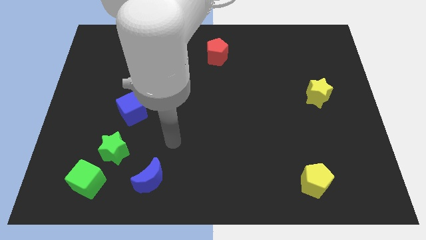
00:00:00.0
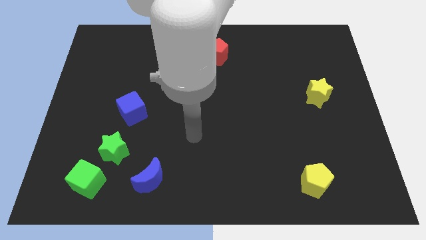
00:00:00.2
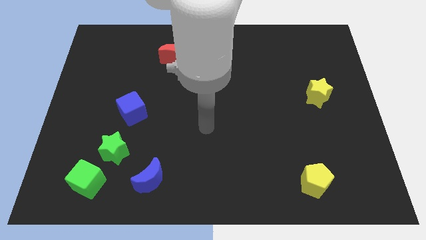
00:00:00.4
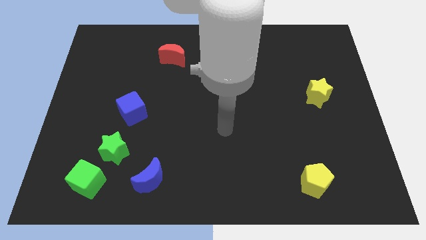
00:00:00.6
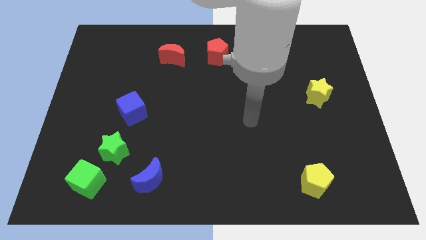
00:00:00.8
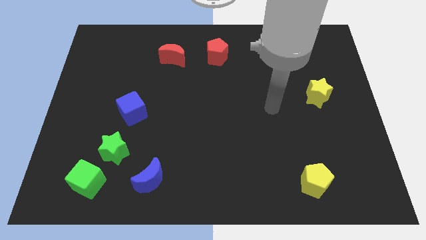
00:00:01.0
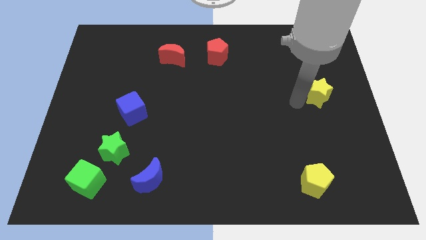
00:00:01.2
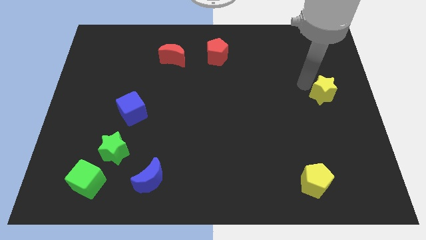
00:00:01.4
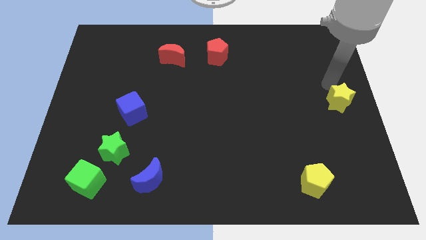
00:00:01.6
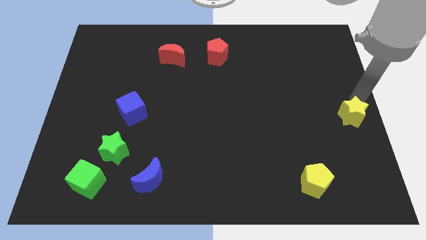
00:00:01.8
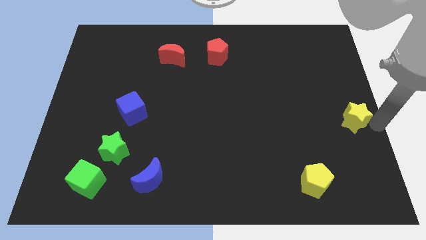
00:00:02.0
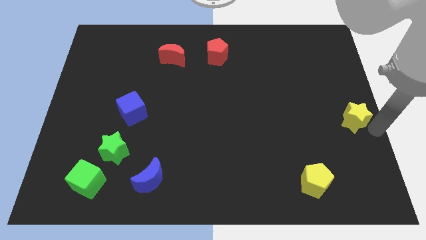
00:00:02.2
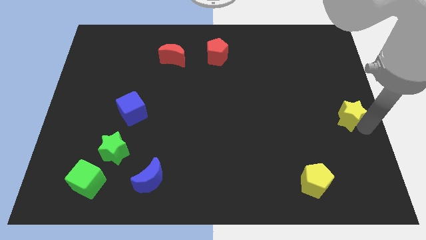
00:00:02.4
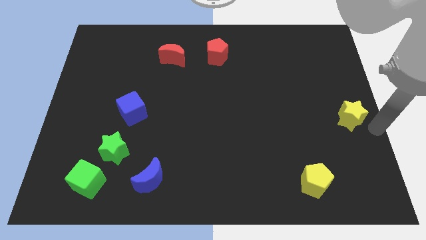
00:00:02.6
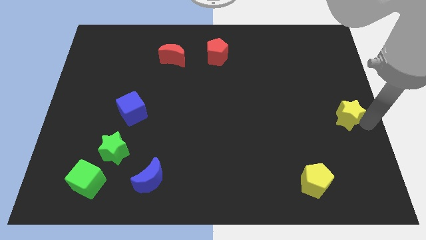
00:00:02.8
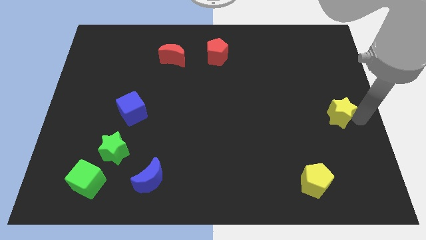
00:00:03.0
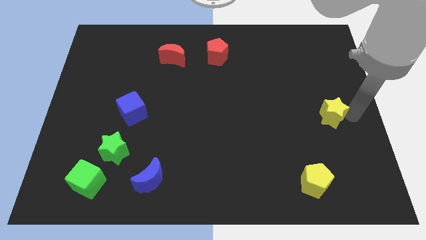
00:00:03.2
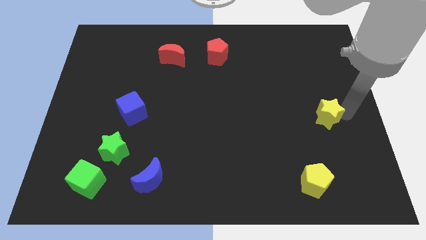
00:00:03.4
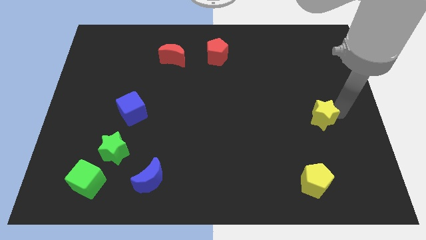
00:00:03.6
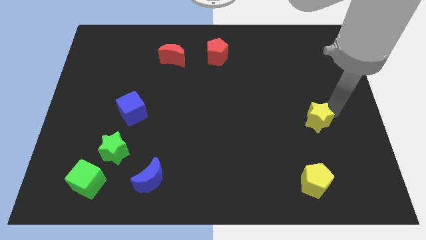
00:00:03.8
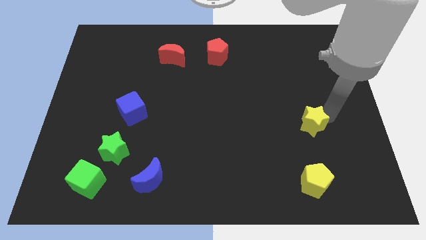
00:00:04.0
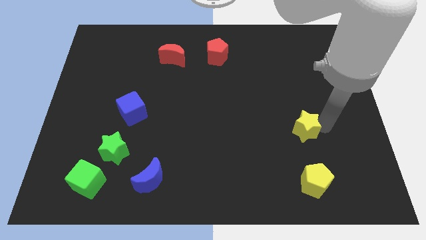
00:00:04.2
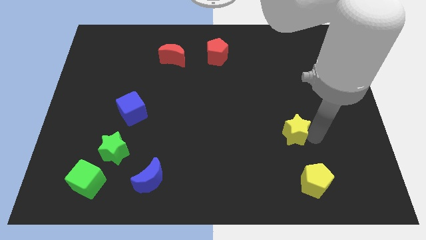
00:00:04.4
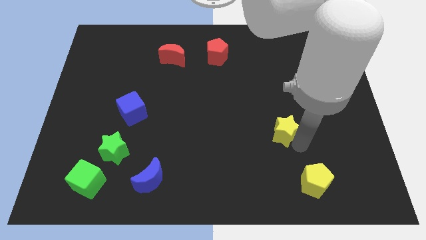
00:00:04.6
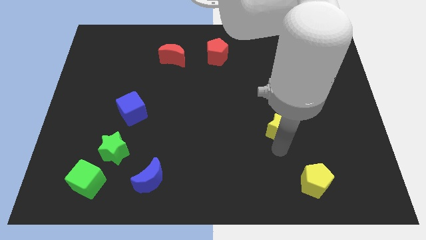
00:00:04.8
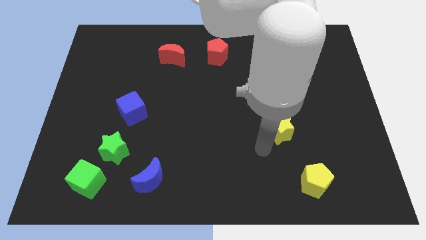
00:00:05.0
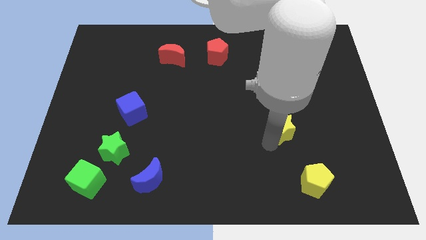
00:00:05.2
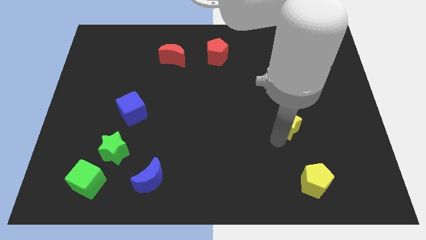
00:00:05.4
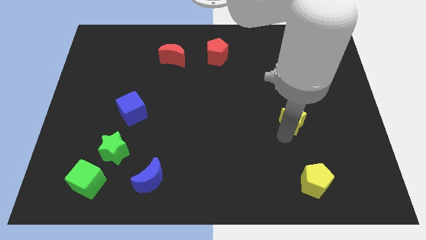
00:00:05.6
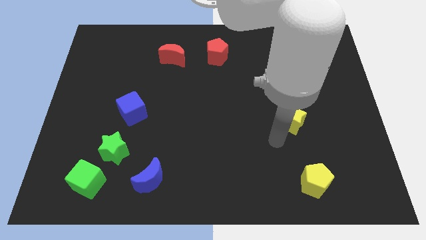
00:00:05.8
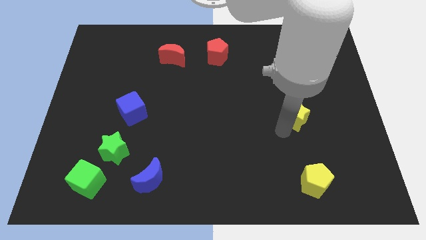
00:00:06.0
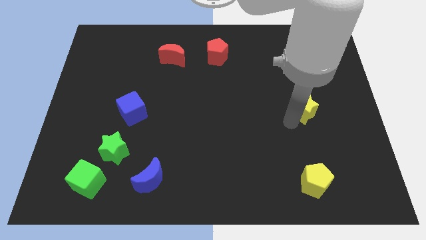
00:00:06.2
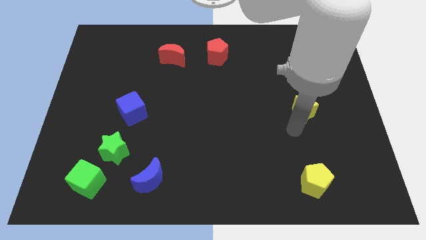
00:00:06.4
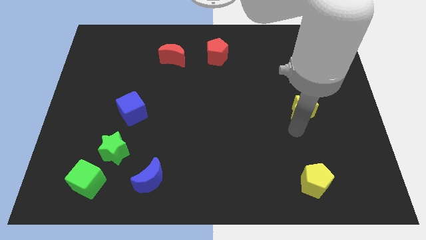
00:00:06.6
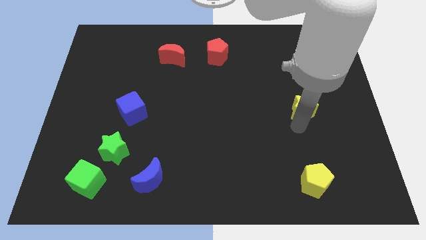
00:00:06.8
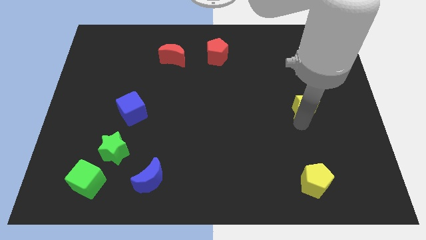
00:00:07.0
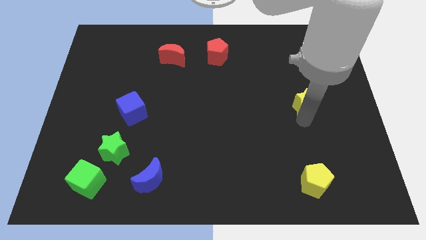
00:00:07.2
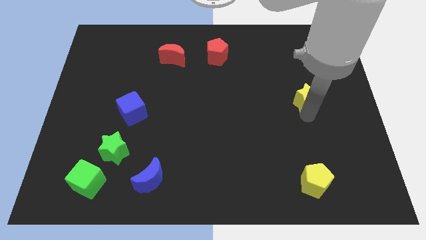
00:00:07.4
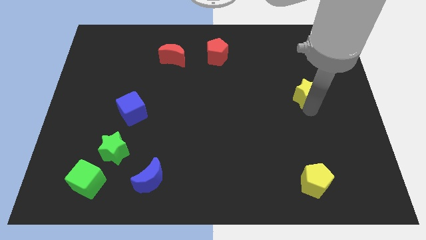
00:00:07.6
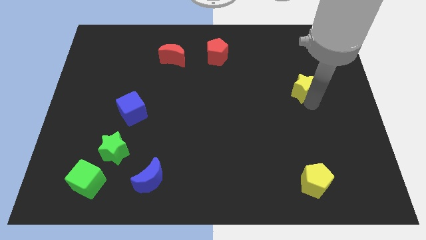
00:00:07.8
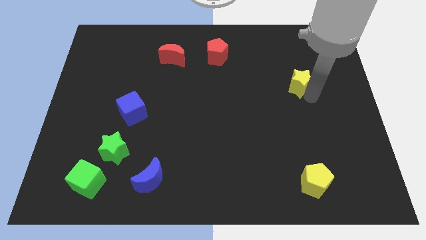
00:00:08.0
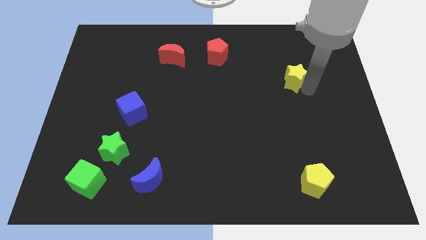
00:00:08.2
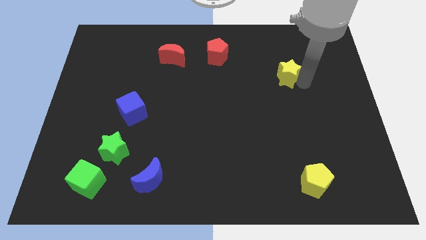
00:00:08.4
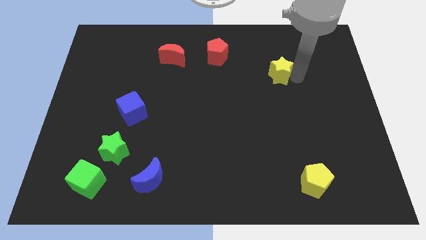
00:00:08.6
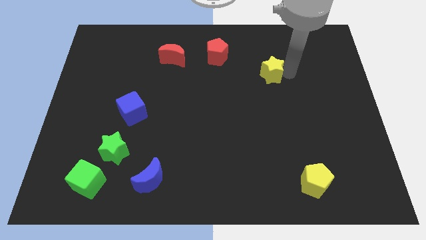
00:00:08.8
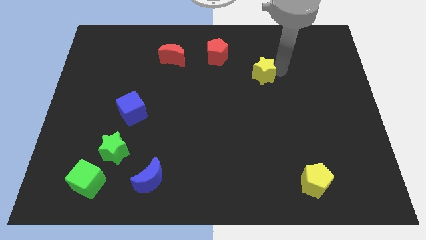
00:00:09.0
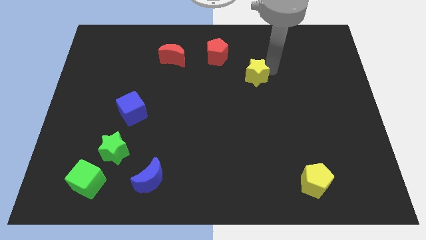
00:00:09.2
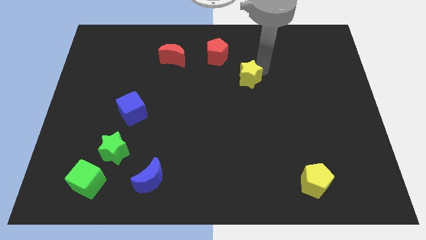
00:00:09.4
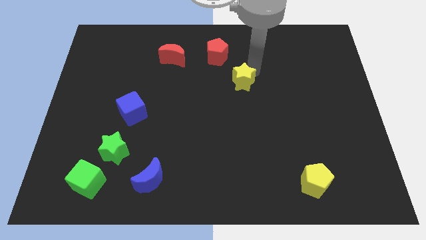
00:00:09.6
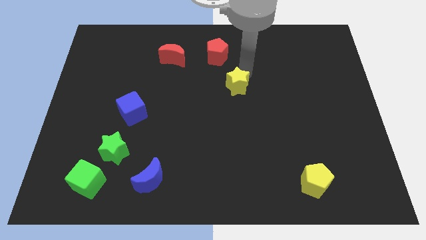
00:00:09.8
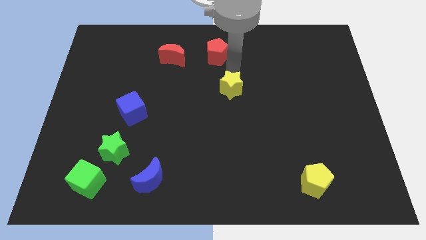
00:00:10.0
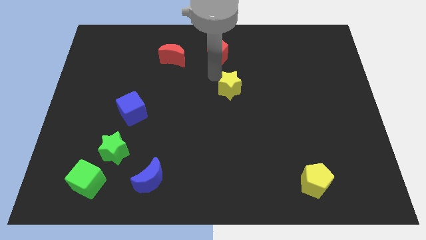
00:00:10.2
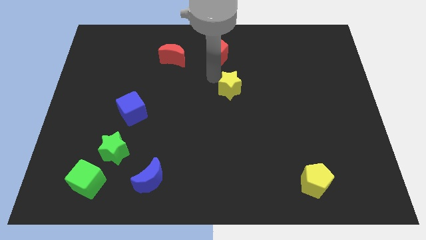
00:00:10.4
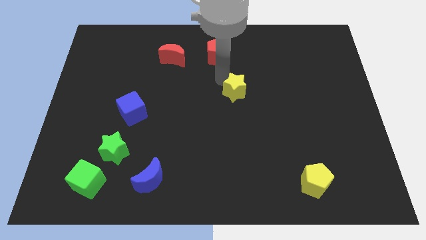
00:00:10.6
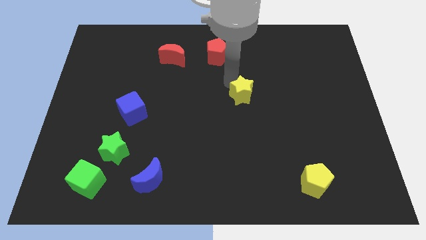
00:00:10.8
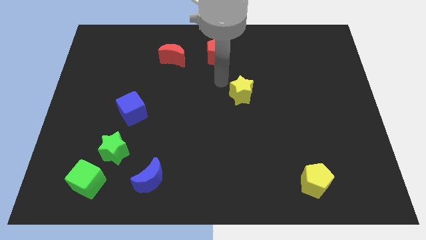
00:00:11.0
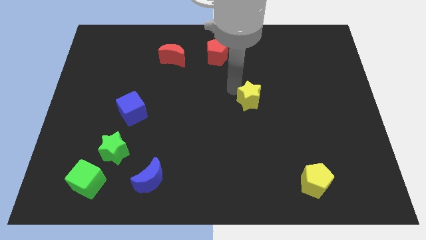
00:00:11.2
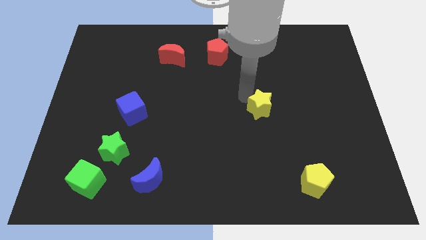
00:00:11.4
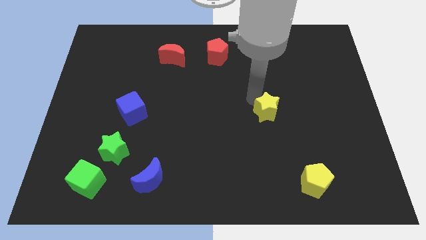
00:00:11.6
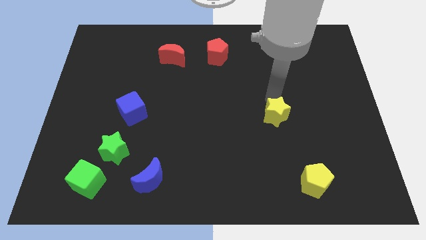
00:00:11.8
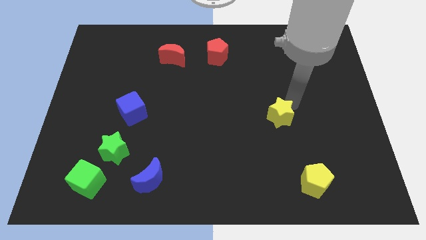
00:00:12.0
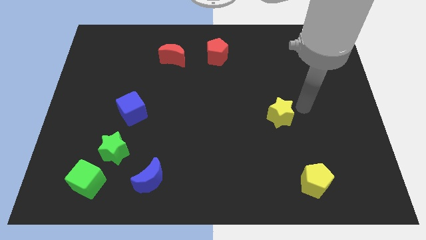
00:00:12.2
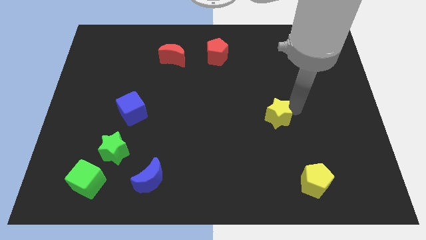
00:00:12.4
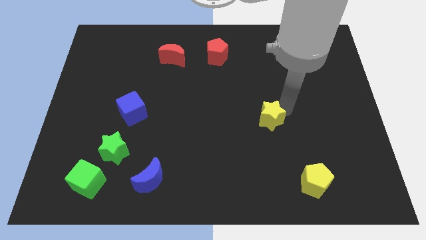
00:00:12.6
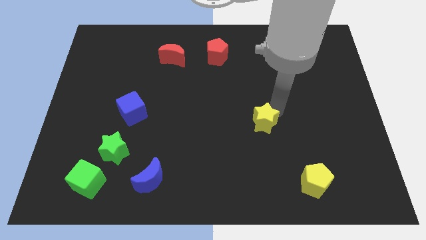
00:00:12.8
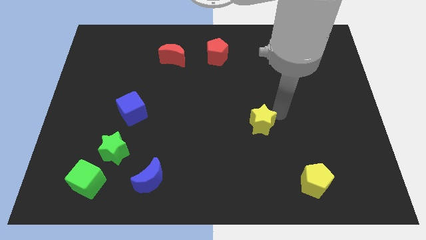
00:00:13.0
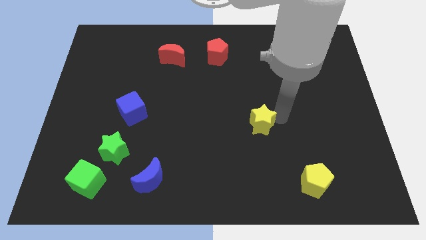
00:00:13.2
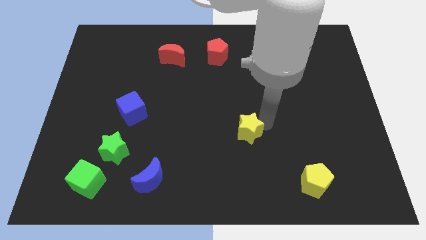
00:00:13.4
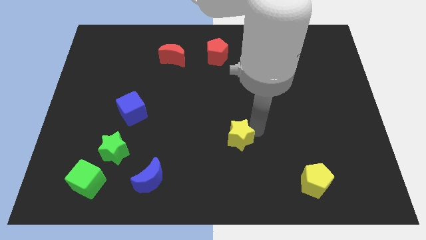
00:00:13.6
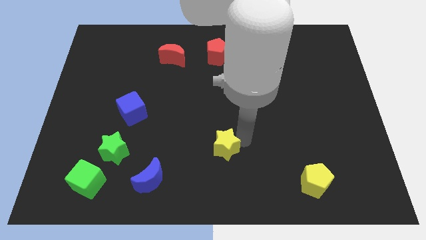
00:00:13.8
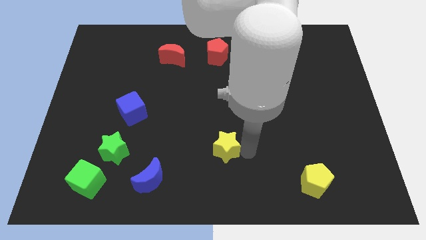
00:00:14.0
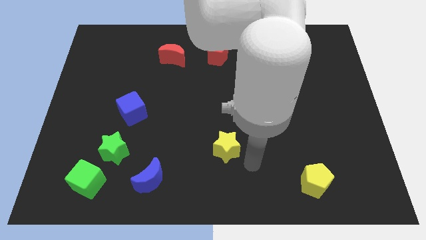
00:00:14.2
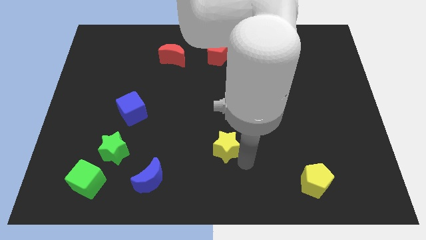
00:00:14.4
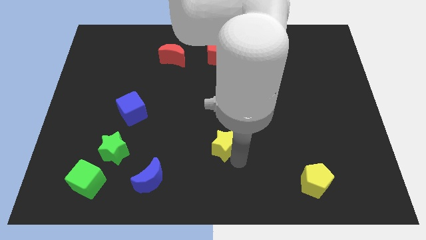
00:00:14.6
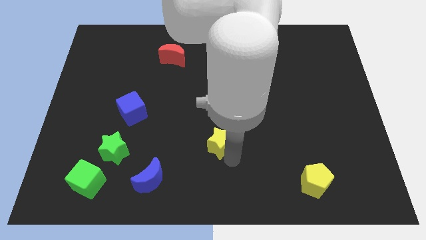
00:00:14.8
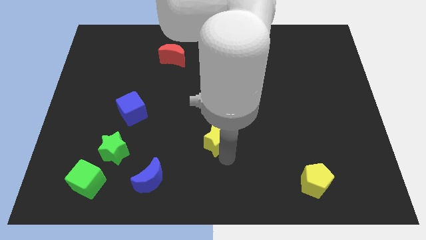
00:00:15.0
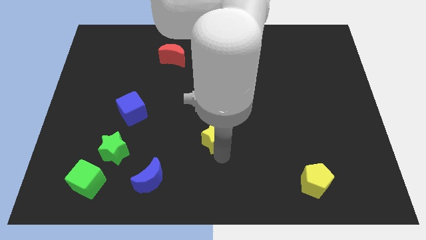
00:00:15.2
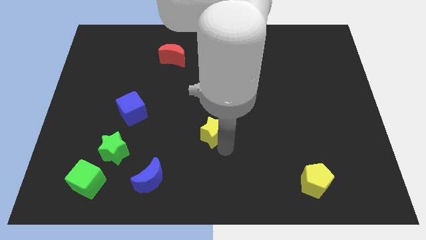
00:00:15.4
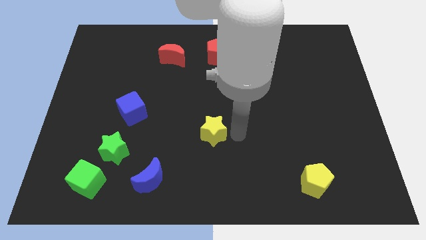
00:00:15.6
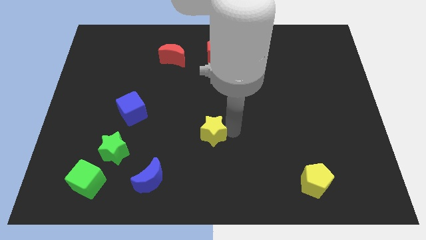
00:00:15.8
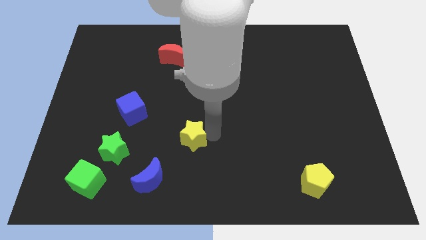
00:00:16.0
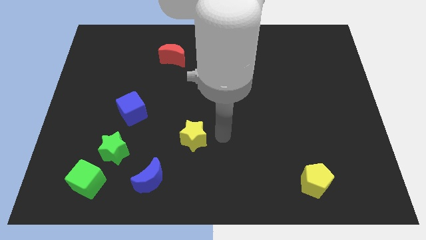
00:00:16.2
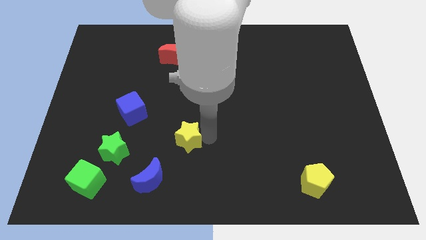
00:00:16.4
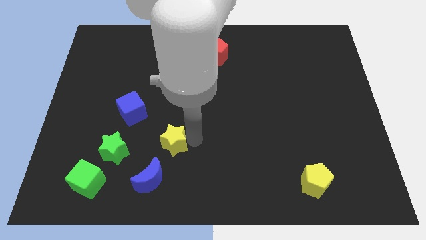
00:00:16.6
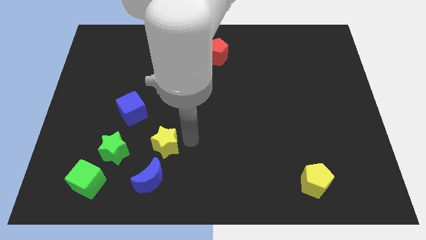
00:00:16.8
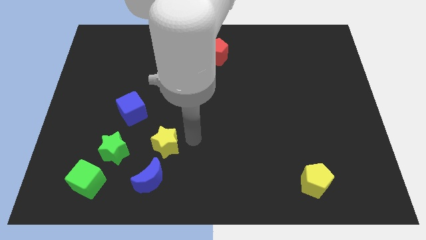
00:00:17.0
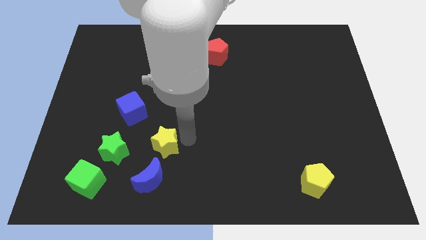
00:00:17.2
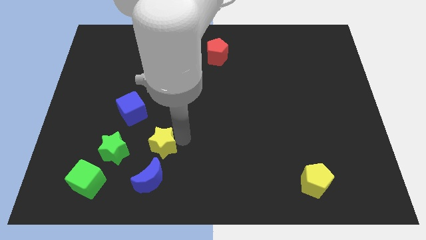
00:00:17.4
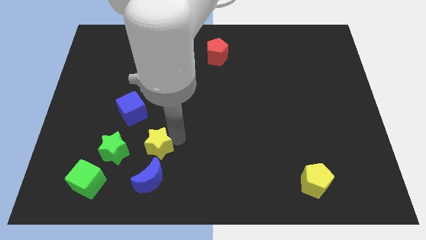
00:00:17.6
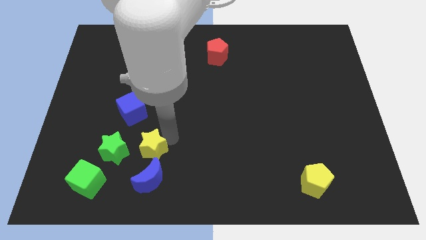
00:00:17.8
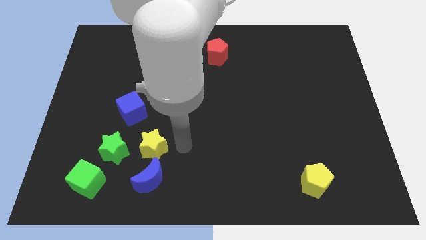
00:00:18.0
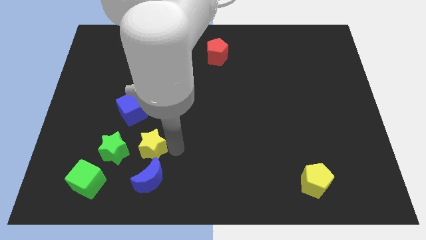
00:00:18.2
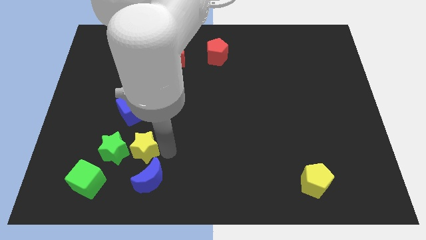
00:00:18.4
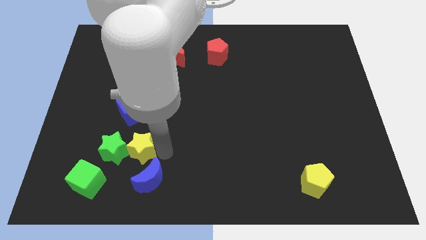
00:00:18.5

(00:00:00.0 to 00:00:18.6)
slide the yellow star towards the green star
